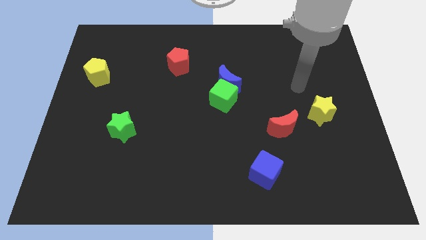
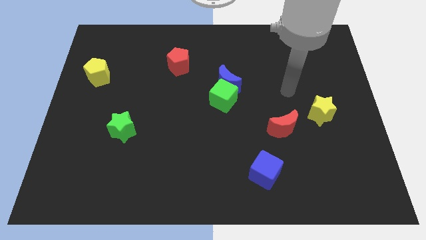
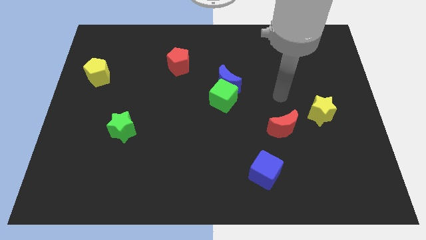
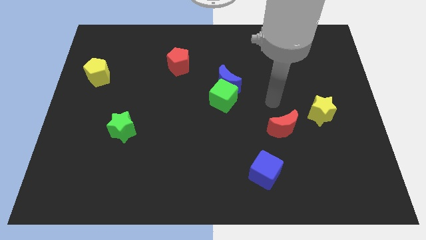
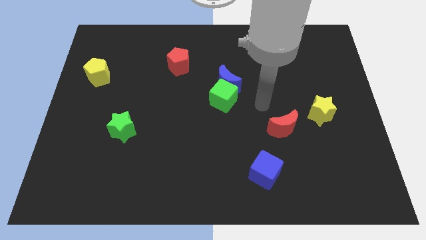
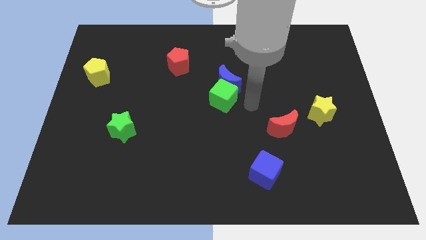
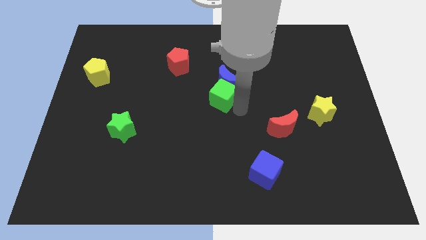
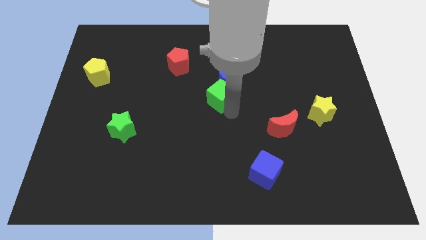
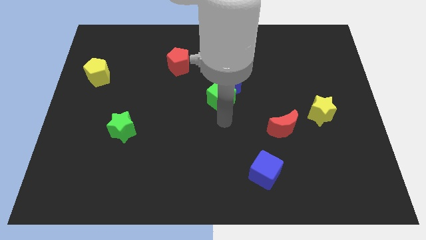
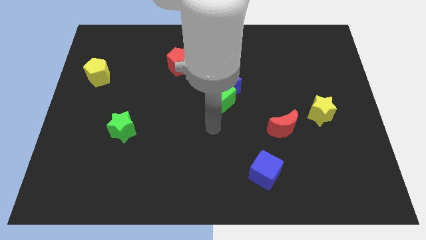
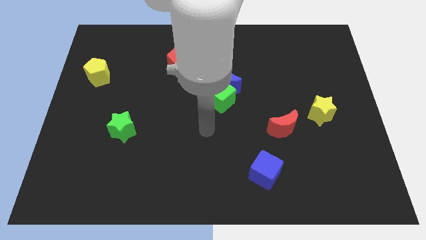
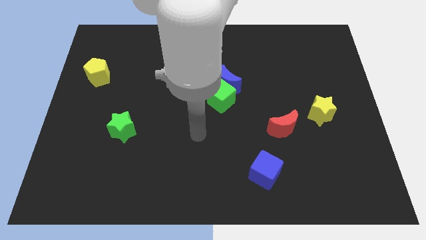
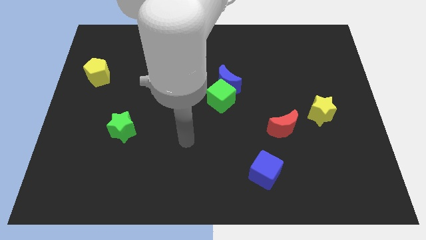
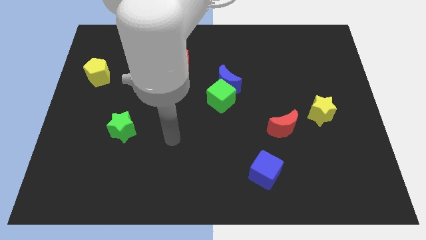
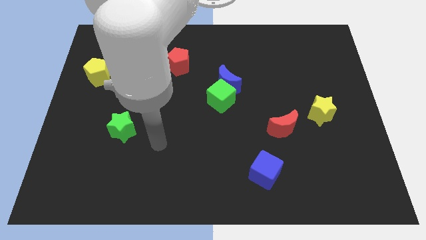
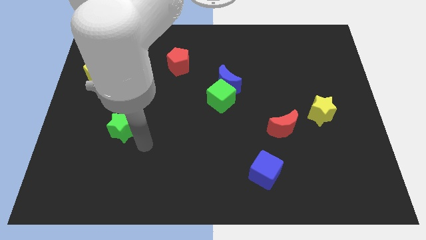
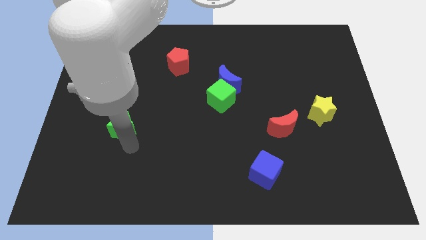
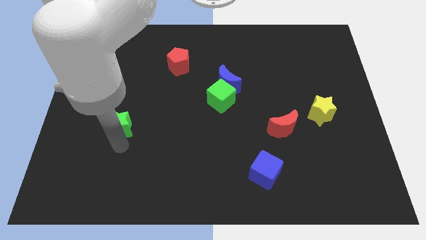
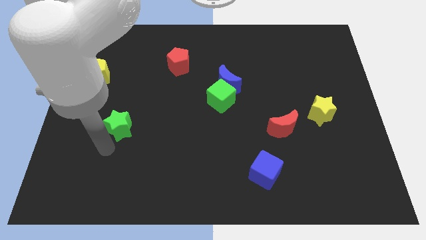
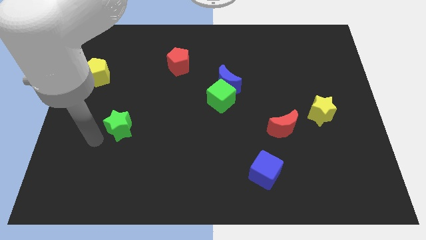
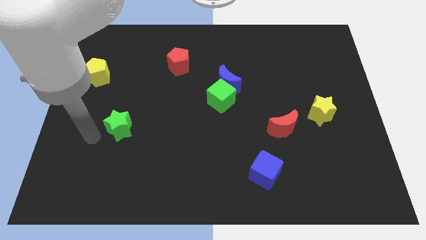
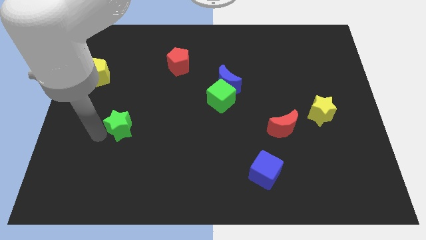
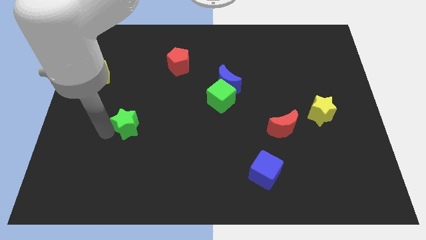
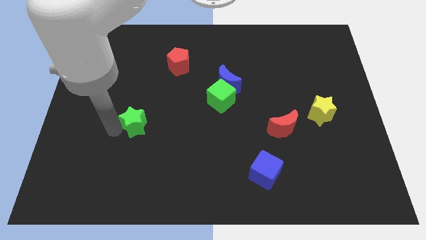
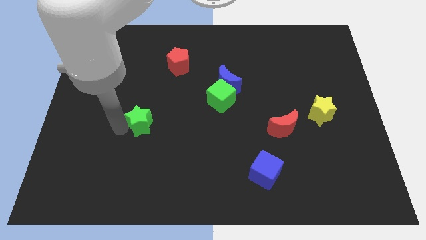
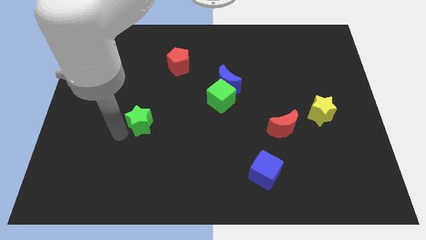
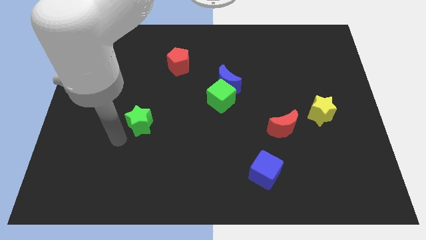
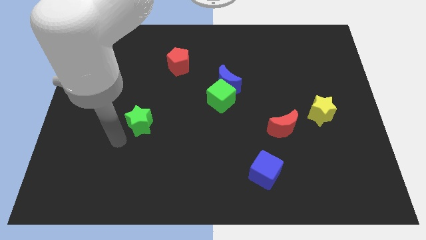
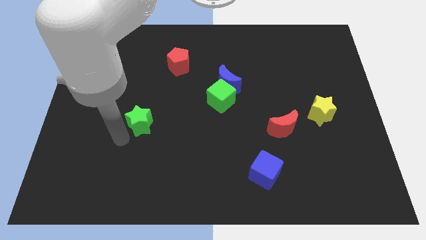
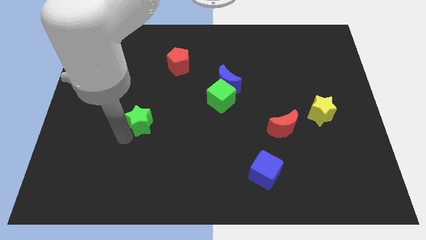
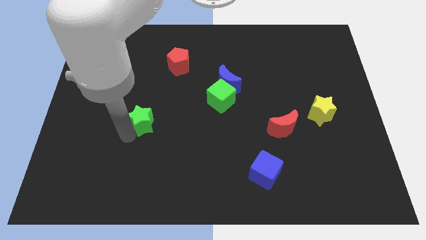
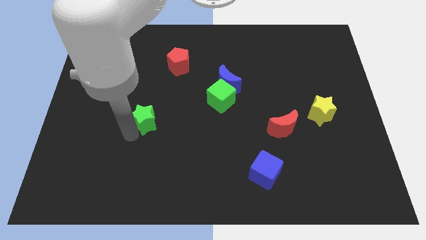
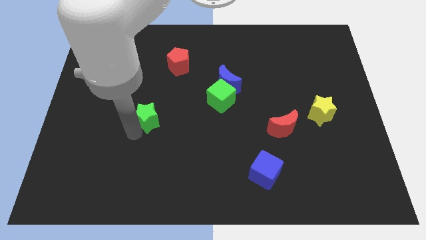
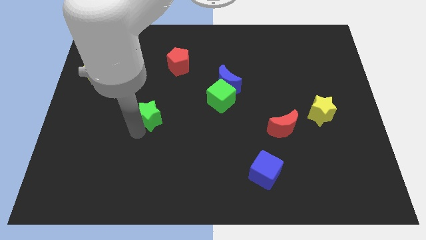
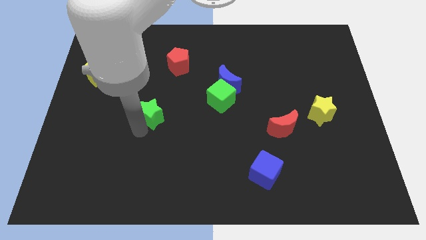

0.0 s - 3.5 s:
slide the green star a little bit upwards and to the right diagonally

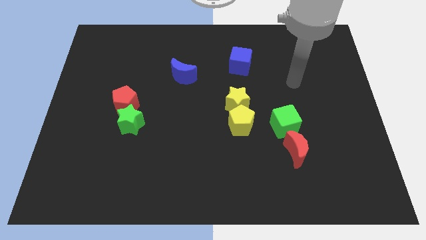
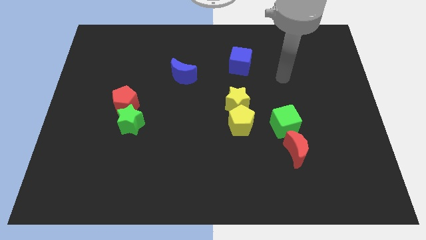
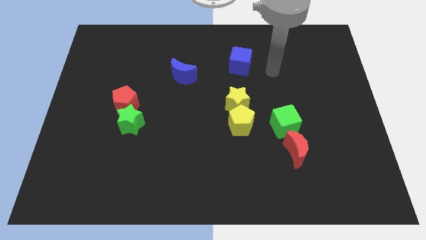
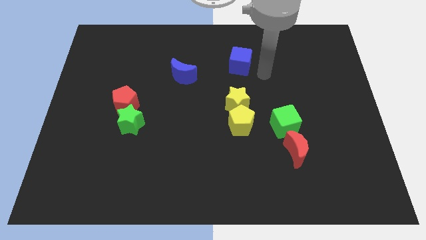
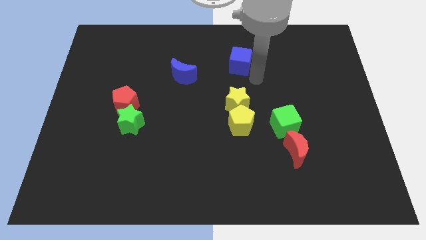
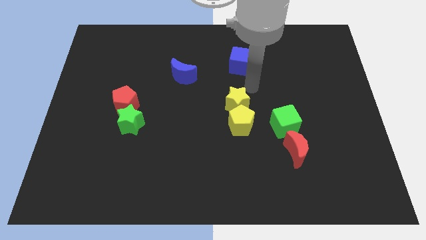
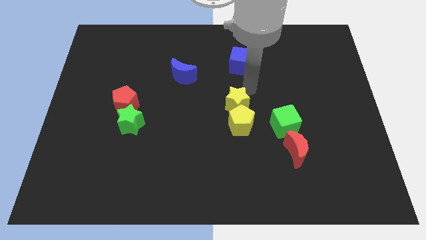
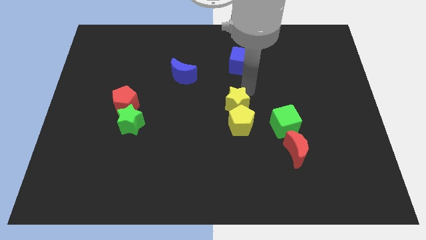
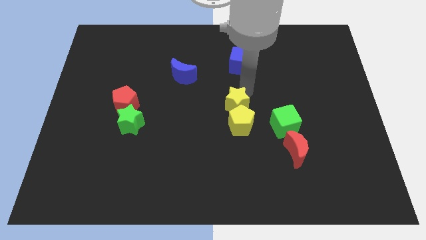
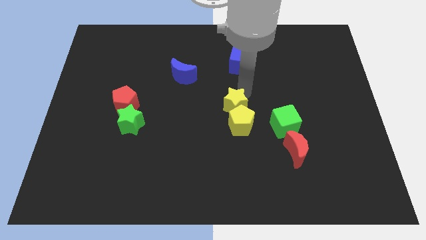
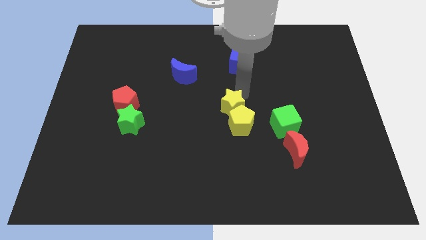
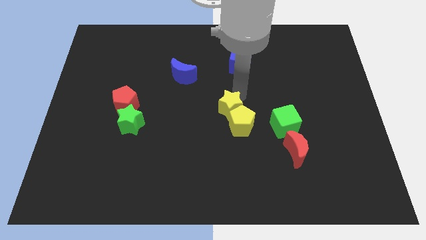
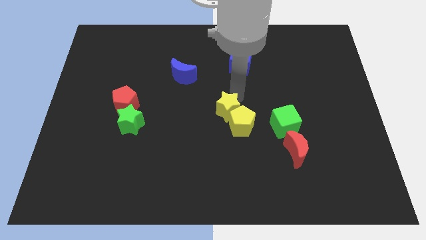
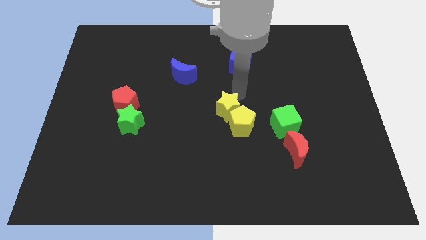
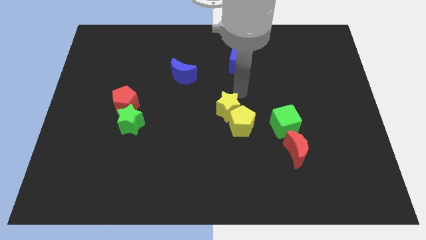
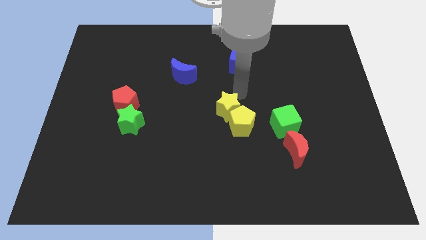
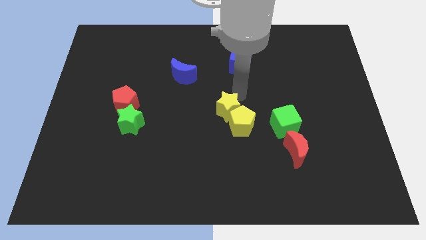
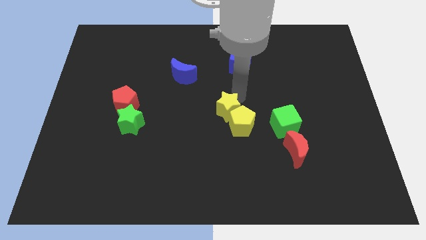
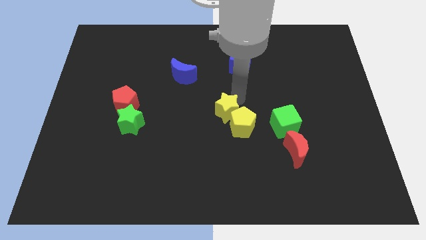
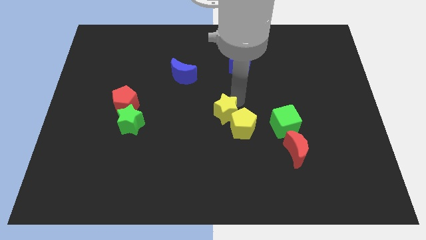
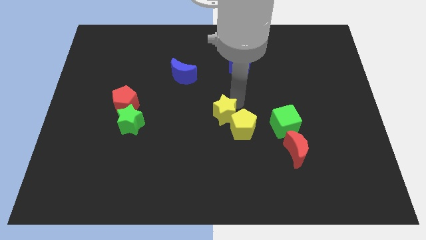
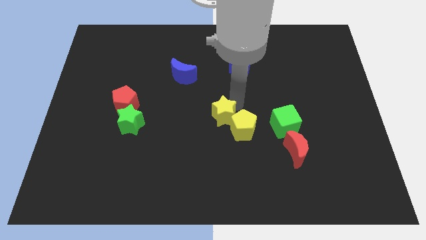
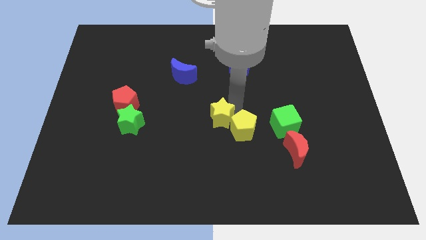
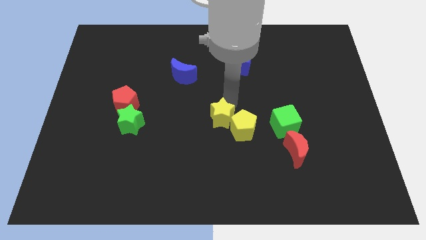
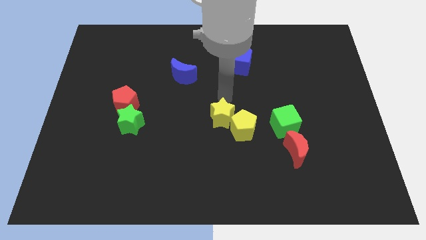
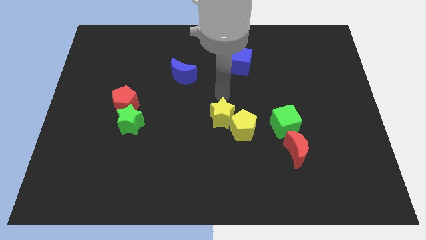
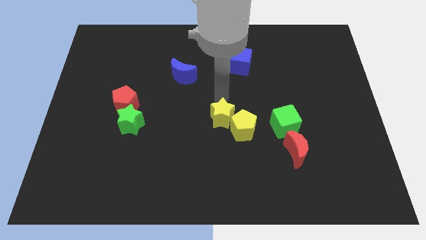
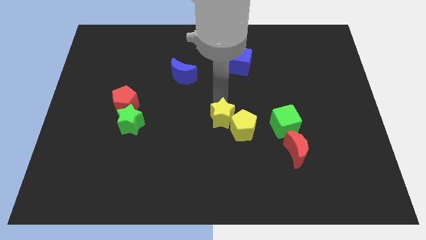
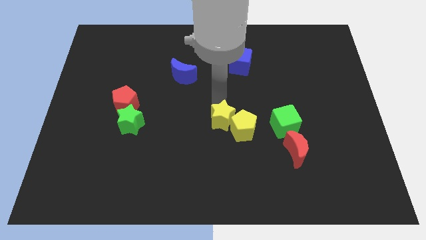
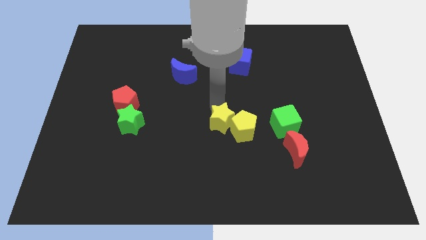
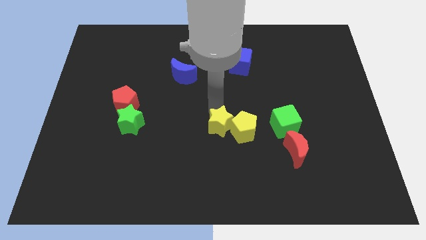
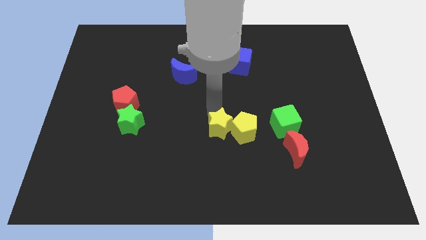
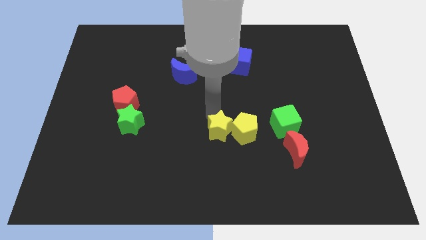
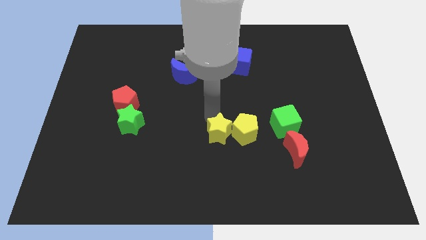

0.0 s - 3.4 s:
slightly slide the yellow star downwards

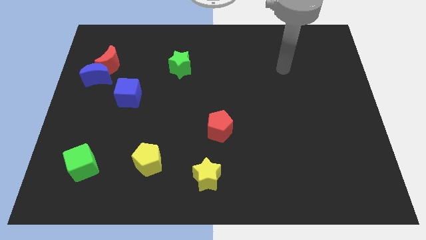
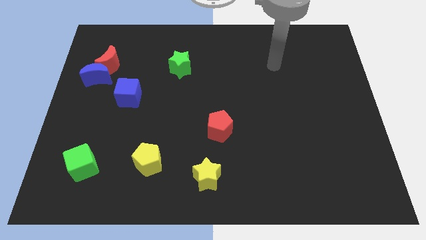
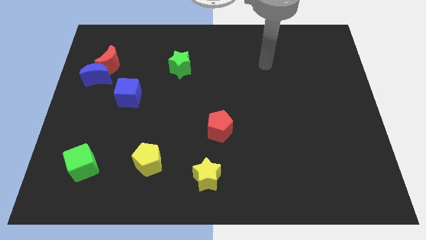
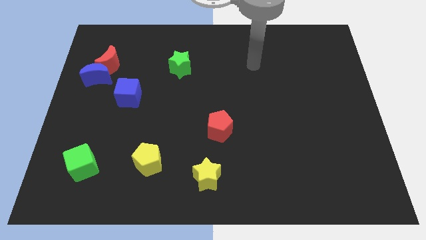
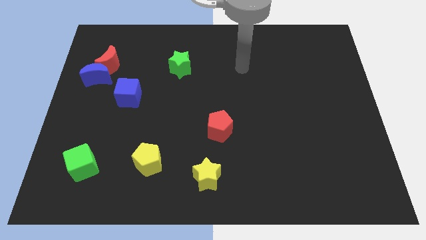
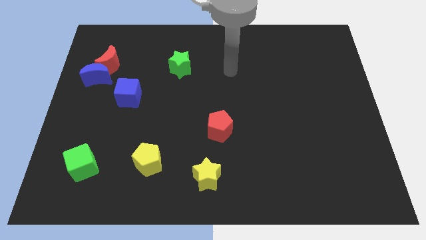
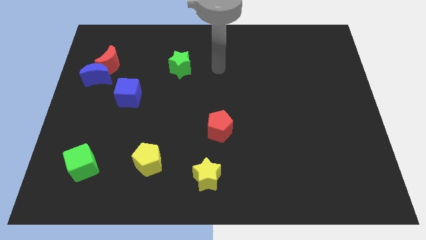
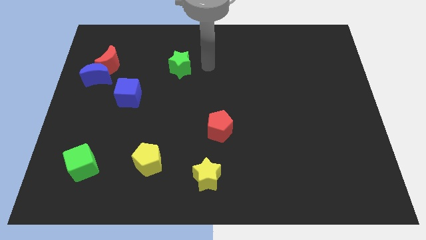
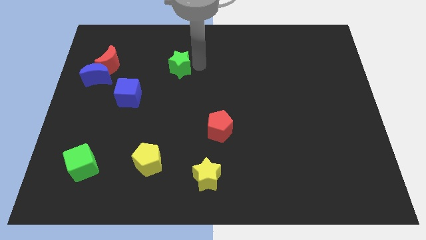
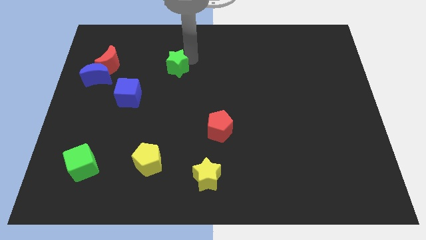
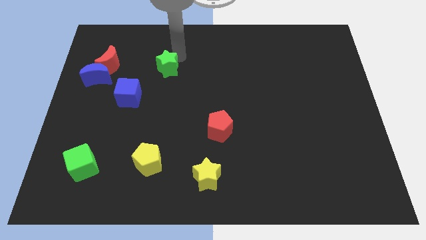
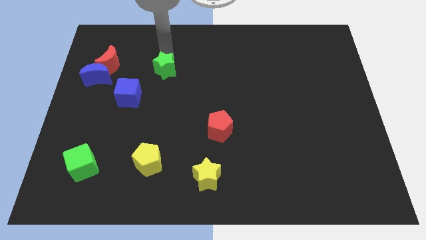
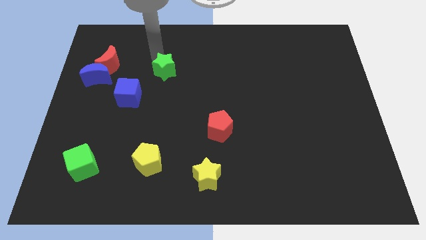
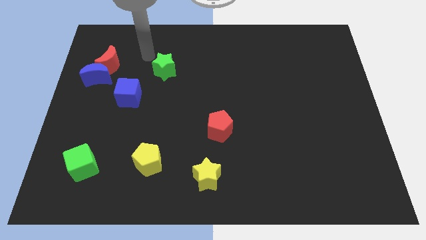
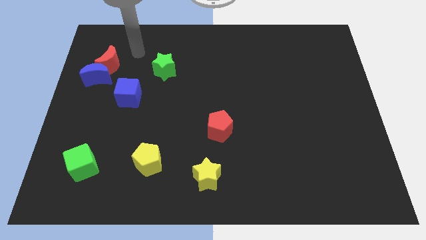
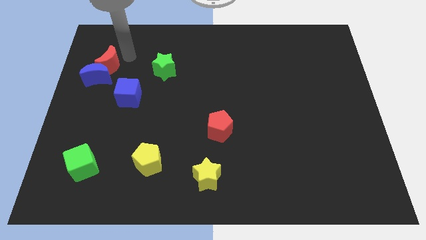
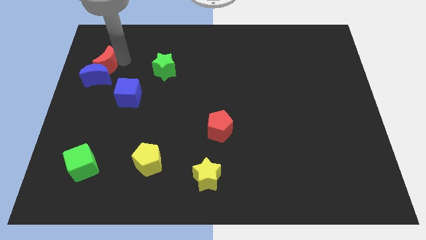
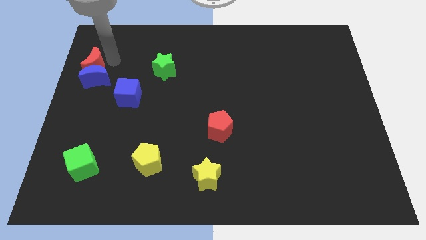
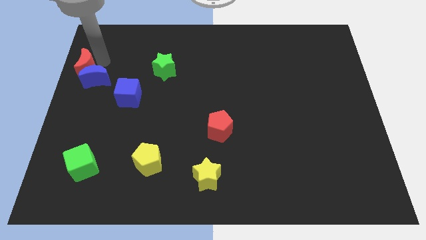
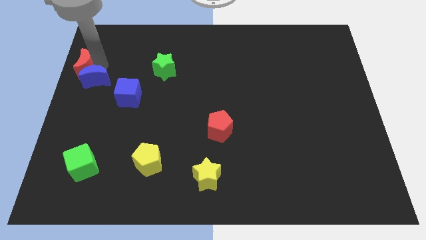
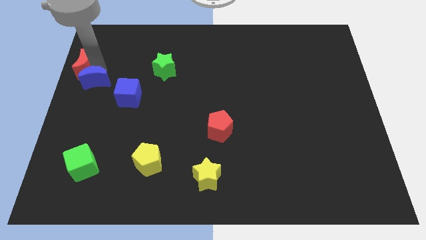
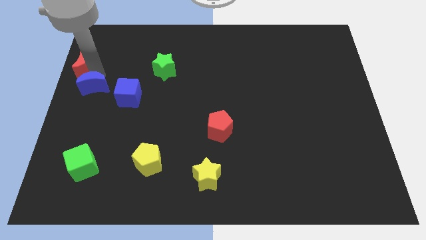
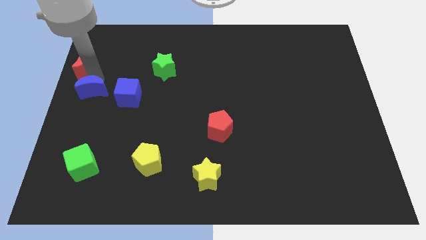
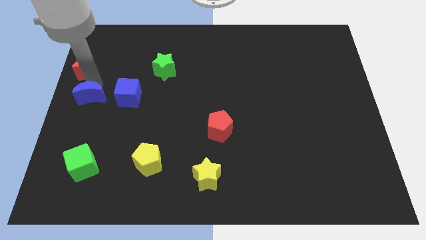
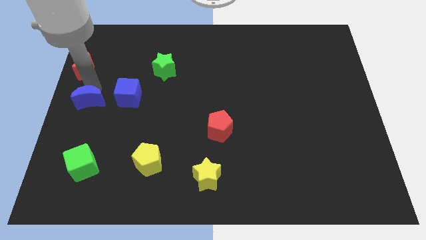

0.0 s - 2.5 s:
slightly slide the blue moon downwards
